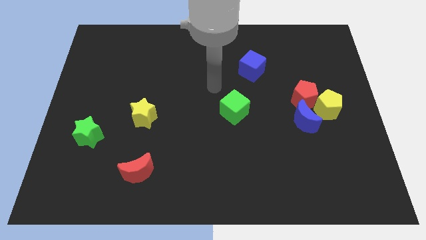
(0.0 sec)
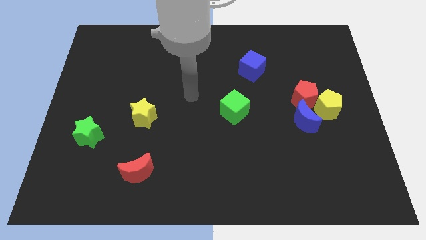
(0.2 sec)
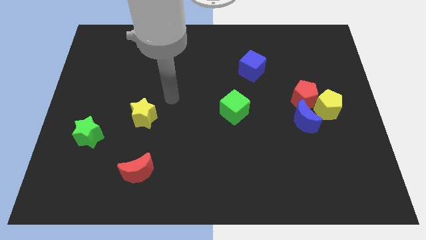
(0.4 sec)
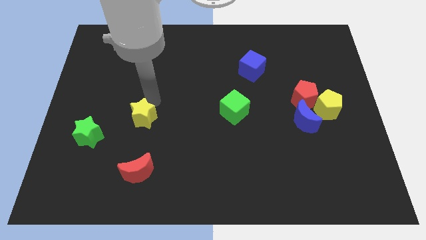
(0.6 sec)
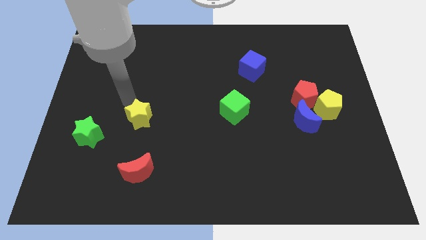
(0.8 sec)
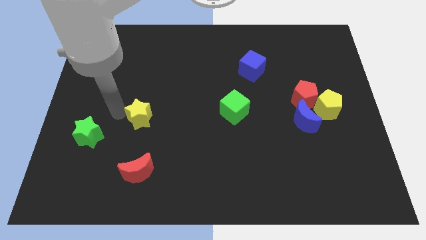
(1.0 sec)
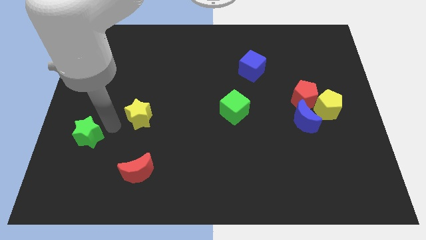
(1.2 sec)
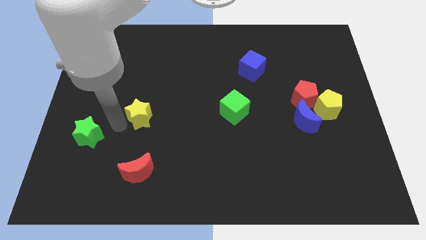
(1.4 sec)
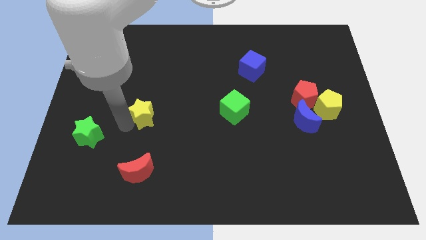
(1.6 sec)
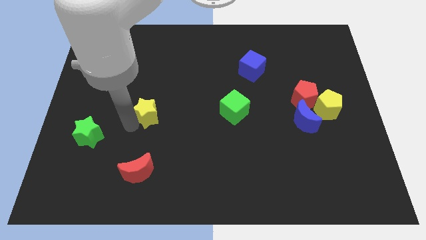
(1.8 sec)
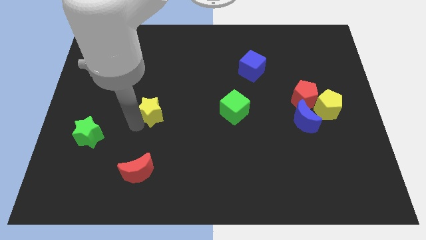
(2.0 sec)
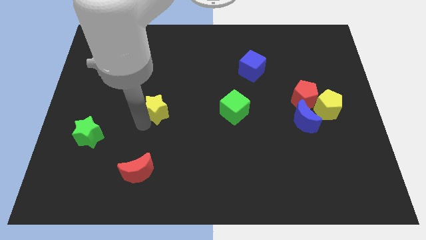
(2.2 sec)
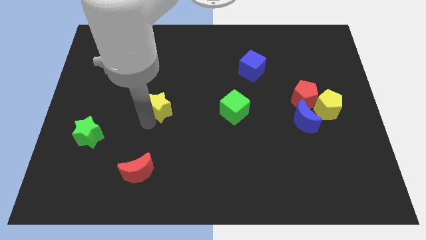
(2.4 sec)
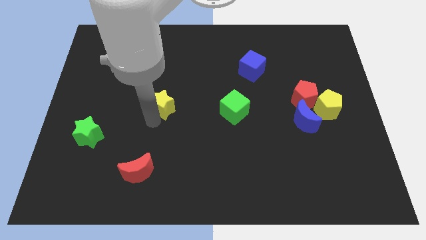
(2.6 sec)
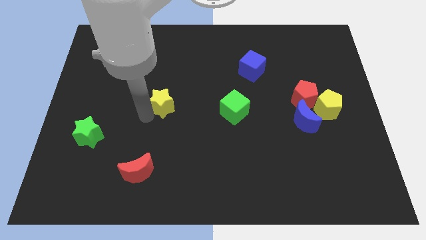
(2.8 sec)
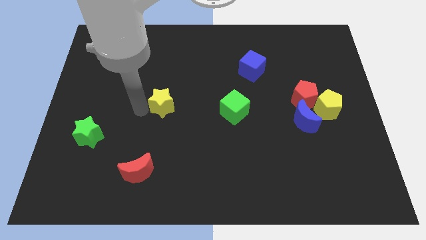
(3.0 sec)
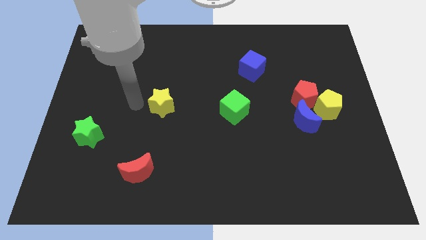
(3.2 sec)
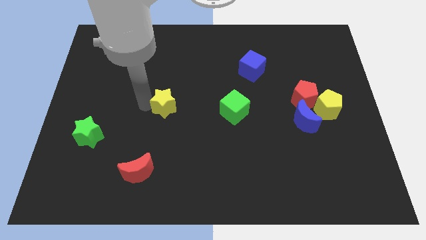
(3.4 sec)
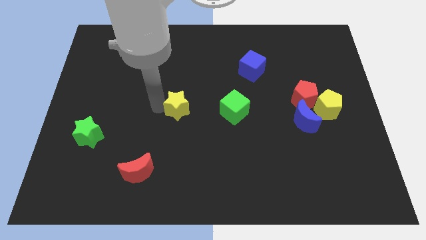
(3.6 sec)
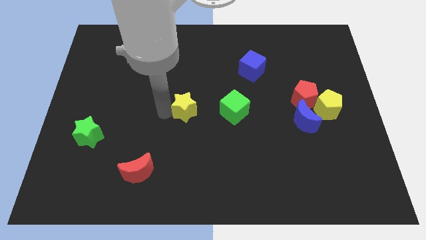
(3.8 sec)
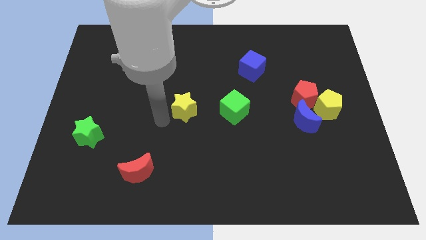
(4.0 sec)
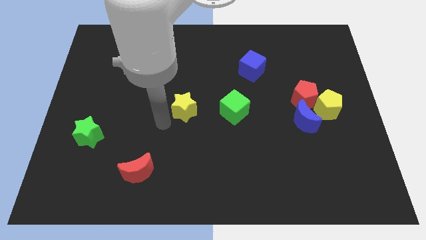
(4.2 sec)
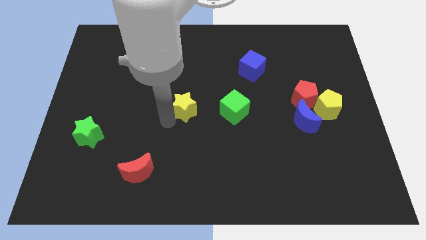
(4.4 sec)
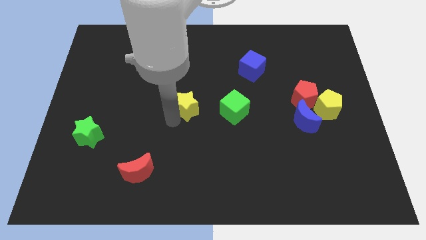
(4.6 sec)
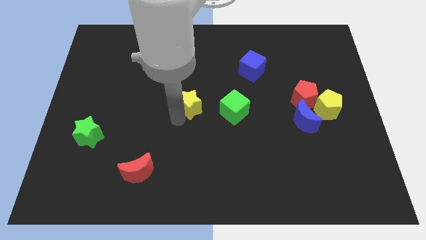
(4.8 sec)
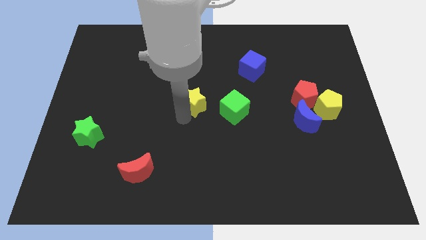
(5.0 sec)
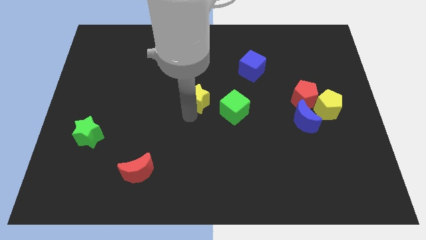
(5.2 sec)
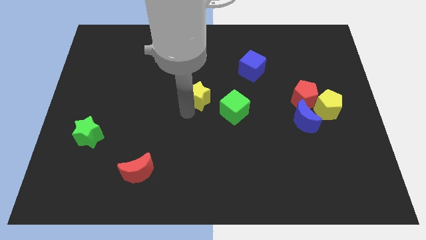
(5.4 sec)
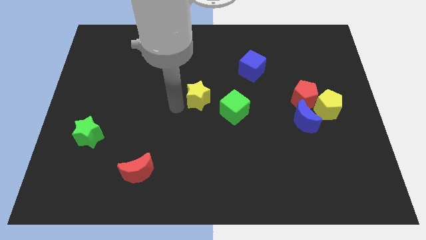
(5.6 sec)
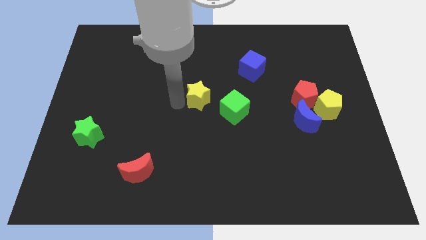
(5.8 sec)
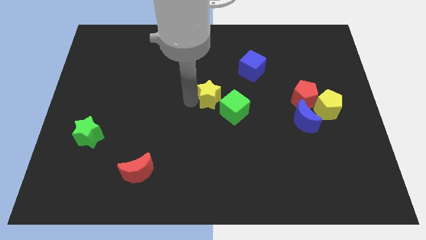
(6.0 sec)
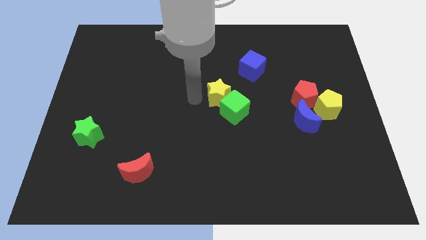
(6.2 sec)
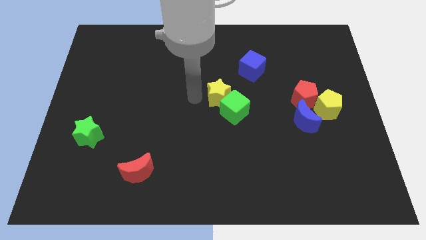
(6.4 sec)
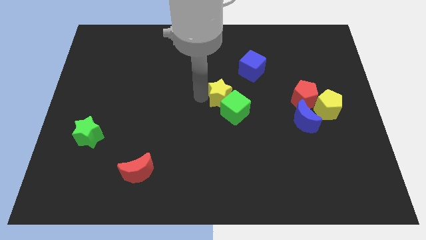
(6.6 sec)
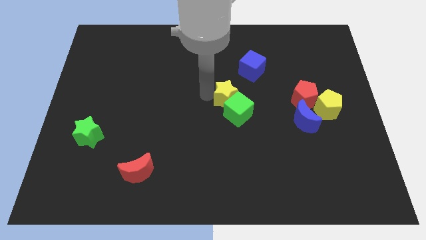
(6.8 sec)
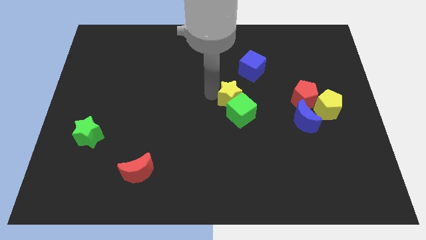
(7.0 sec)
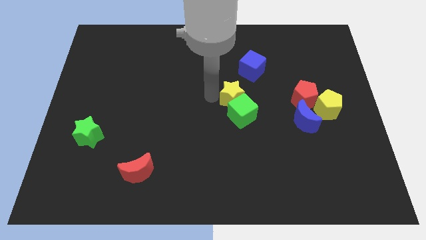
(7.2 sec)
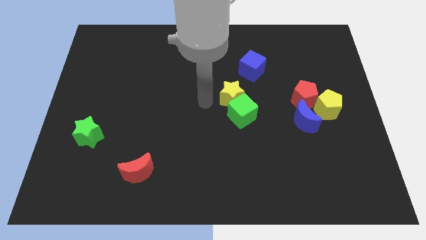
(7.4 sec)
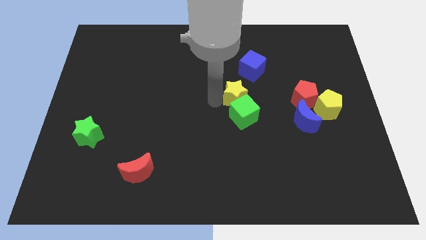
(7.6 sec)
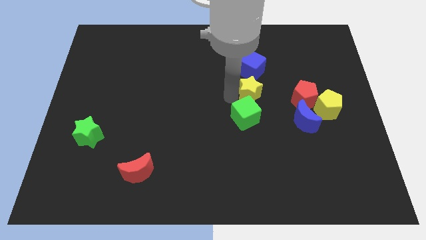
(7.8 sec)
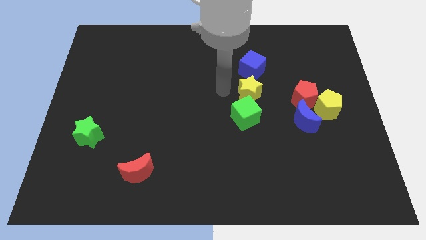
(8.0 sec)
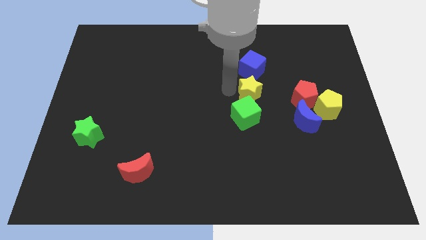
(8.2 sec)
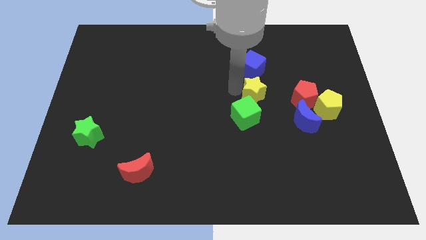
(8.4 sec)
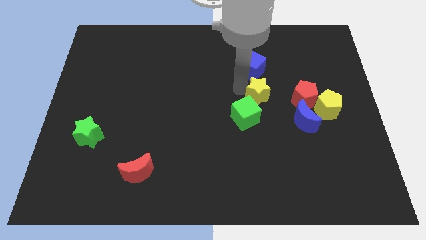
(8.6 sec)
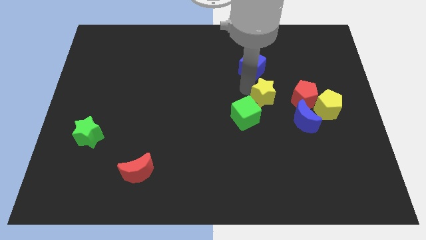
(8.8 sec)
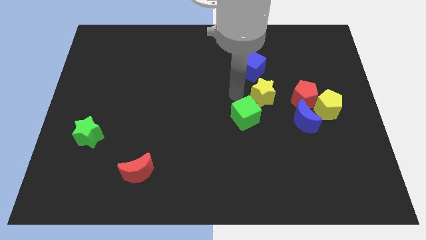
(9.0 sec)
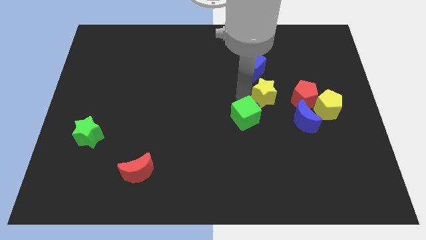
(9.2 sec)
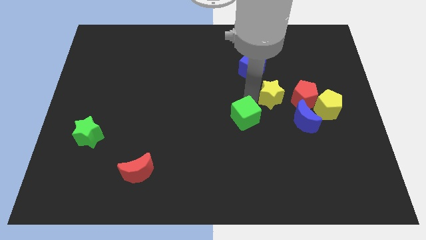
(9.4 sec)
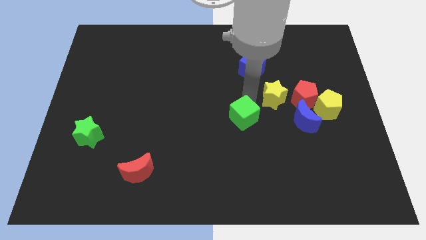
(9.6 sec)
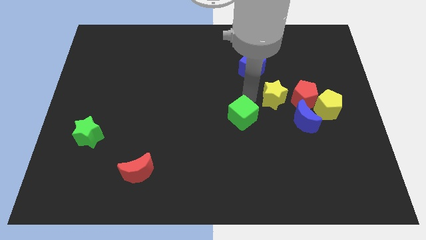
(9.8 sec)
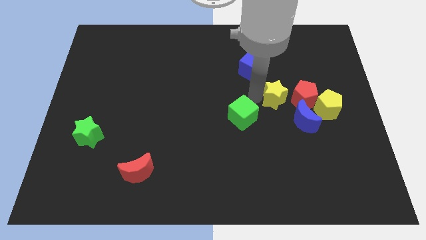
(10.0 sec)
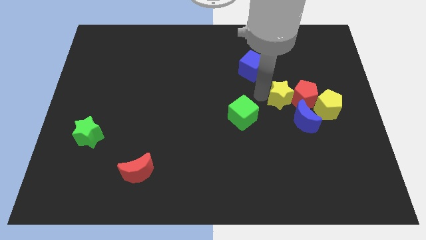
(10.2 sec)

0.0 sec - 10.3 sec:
put the yellow star towards the red pentagon

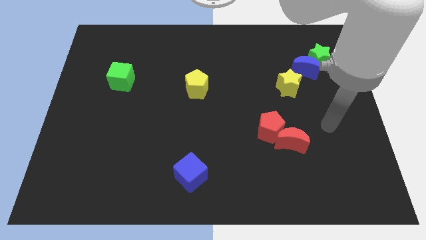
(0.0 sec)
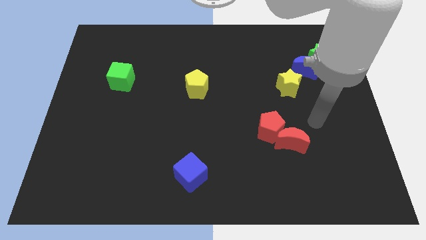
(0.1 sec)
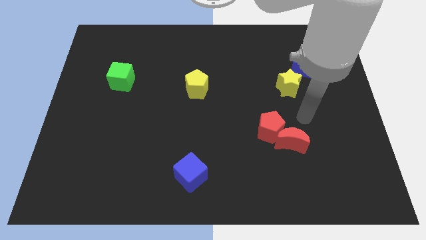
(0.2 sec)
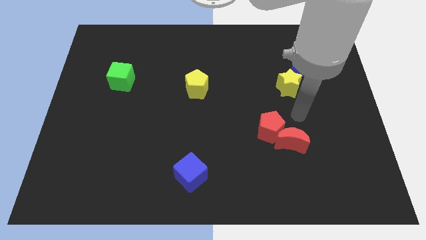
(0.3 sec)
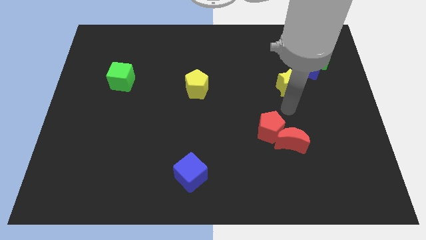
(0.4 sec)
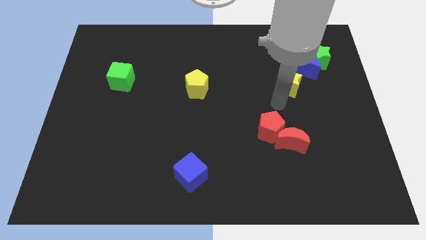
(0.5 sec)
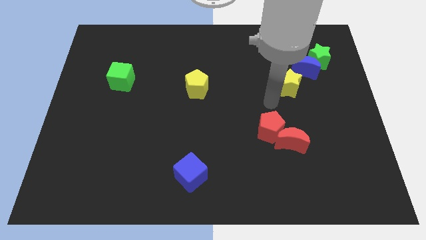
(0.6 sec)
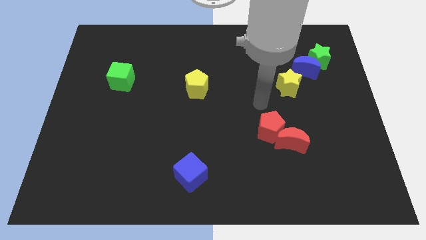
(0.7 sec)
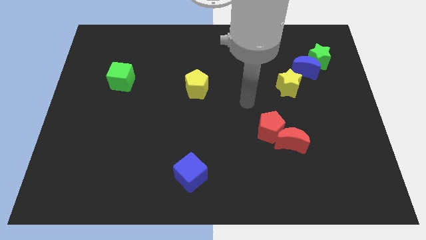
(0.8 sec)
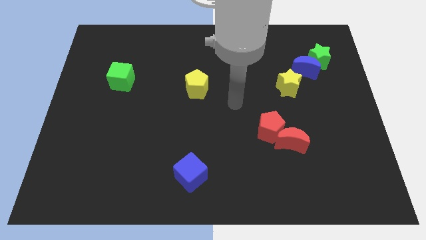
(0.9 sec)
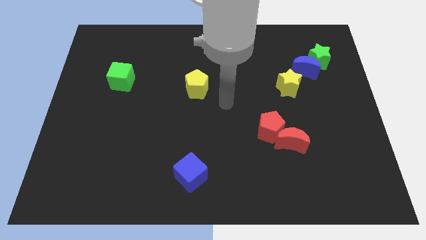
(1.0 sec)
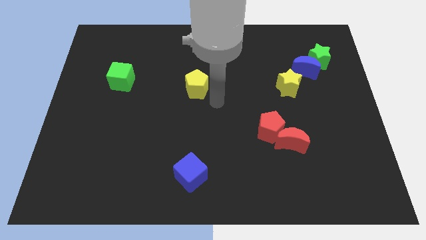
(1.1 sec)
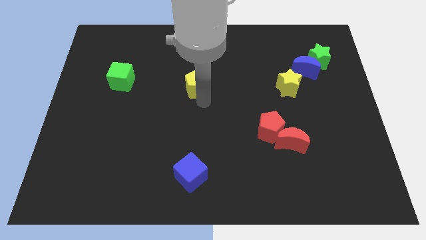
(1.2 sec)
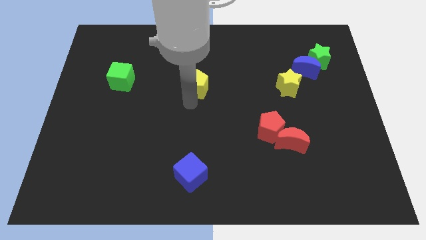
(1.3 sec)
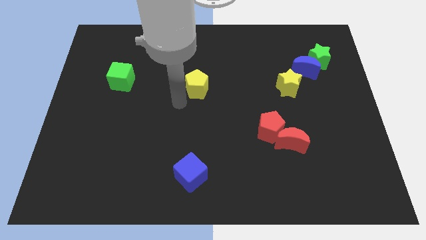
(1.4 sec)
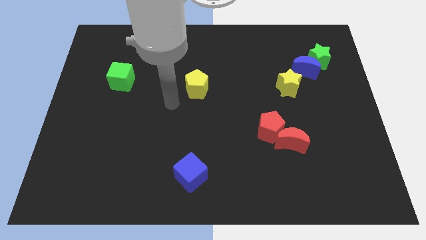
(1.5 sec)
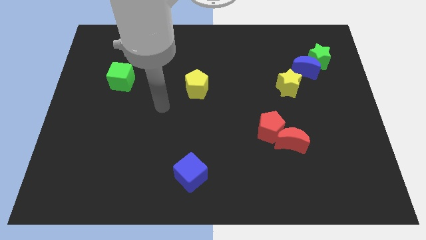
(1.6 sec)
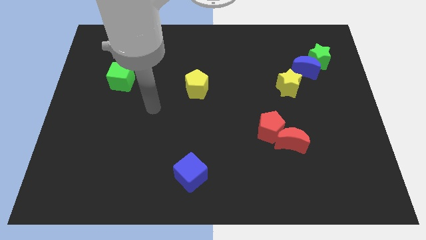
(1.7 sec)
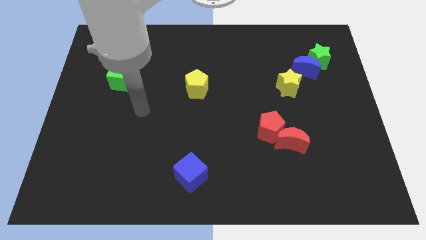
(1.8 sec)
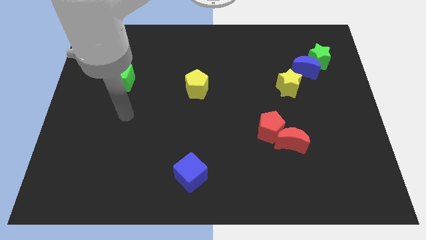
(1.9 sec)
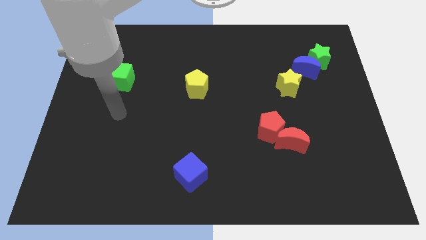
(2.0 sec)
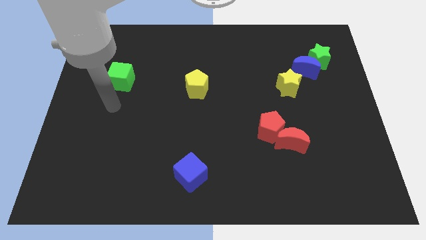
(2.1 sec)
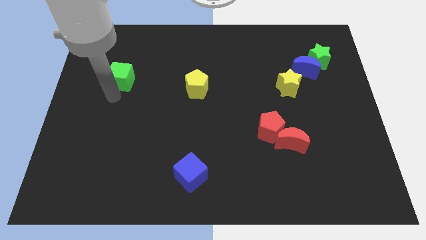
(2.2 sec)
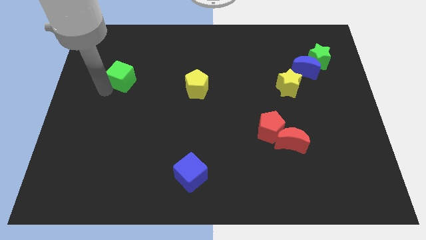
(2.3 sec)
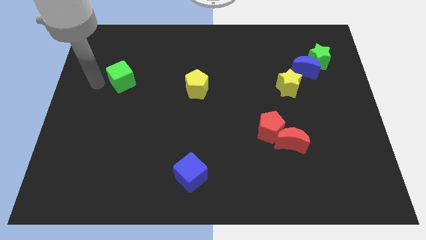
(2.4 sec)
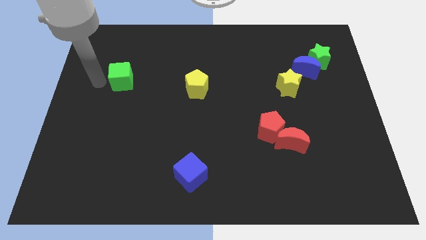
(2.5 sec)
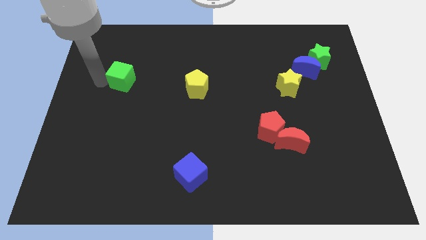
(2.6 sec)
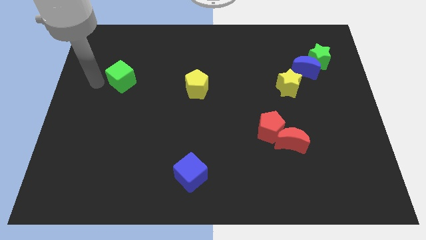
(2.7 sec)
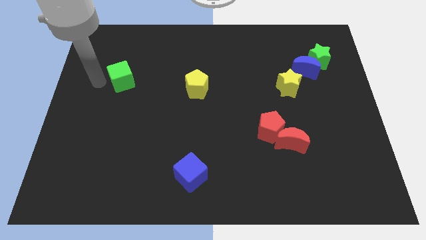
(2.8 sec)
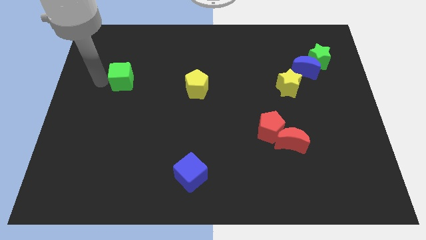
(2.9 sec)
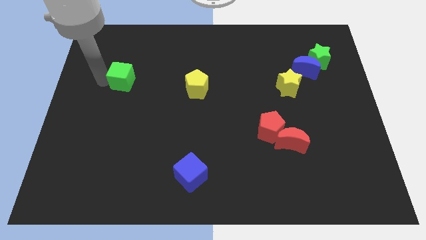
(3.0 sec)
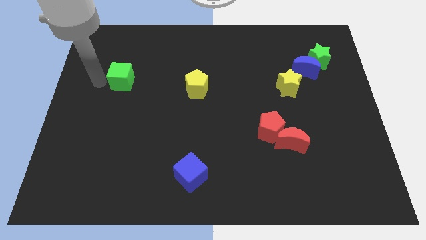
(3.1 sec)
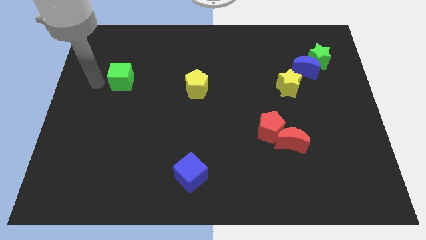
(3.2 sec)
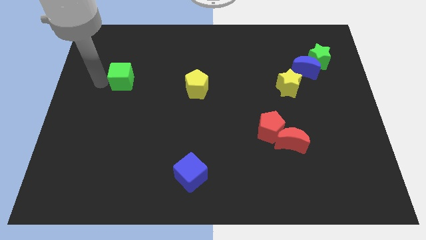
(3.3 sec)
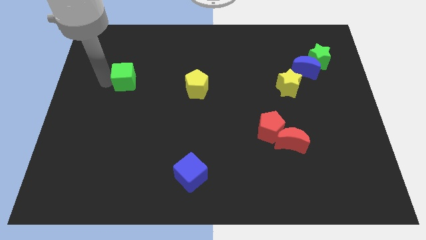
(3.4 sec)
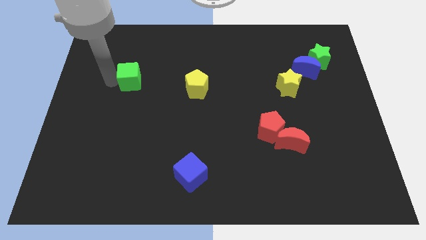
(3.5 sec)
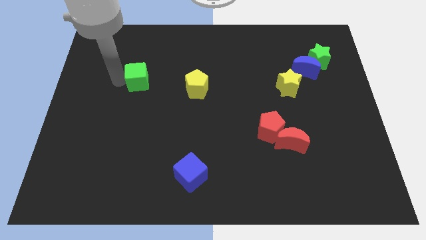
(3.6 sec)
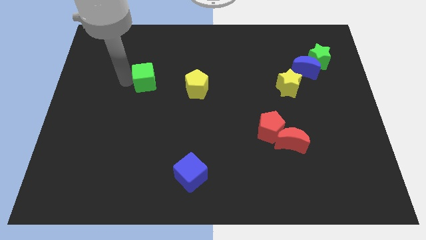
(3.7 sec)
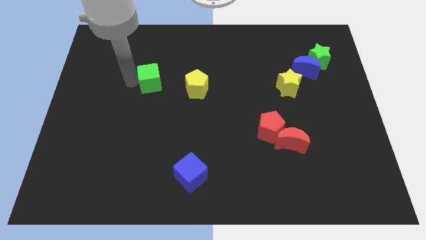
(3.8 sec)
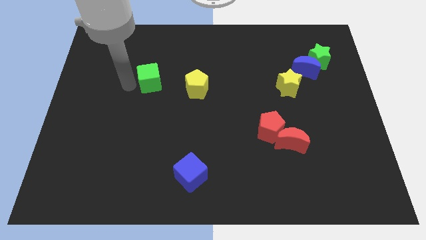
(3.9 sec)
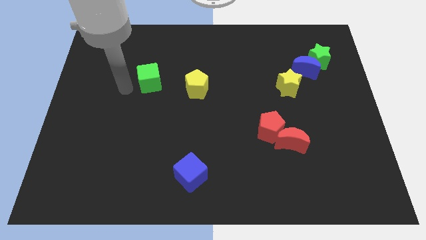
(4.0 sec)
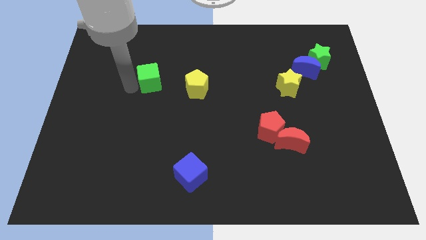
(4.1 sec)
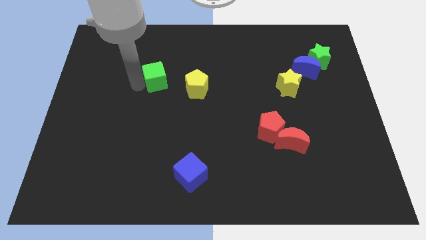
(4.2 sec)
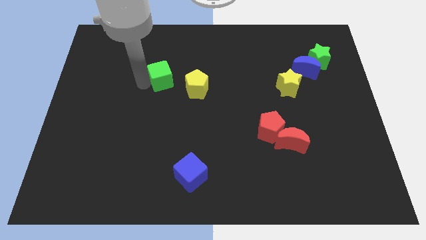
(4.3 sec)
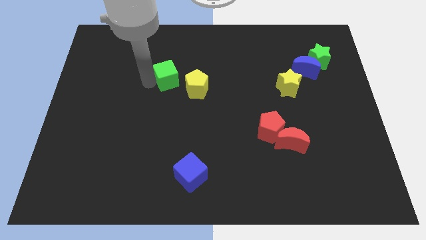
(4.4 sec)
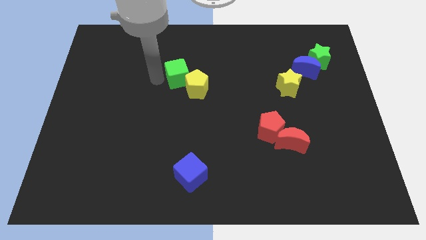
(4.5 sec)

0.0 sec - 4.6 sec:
push the green cube to the yellow pentagon
